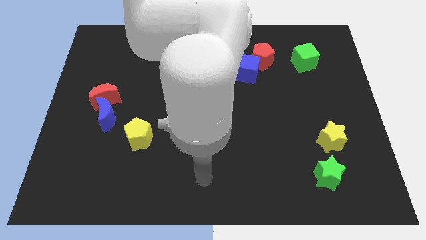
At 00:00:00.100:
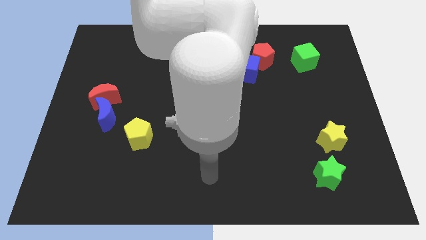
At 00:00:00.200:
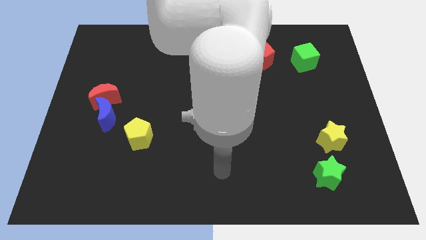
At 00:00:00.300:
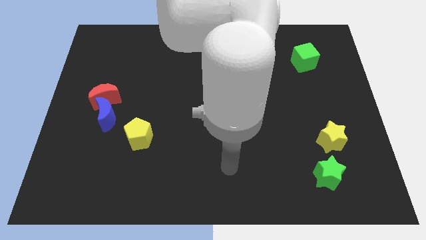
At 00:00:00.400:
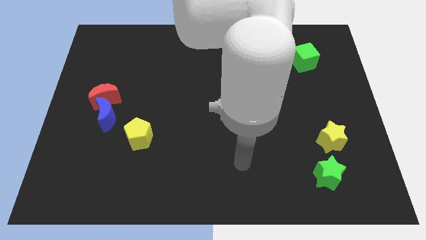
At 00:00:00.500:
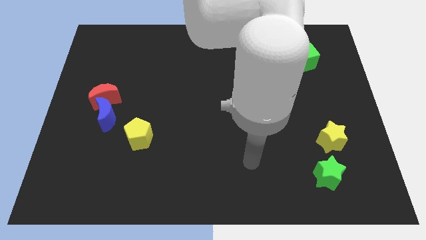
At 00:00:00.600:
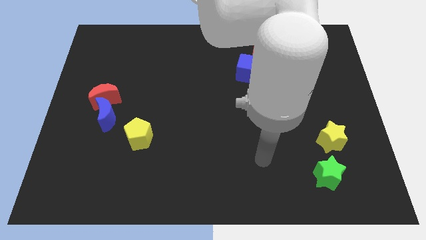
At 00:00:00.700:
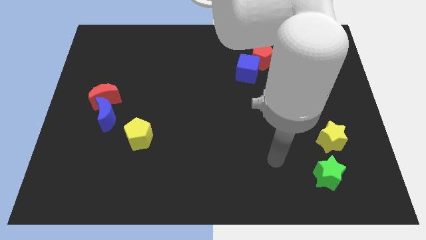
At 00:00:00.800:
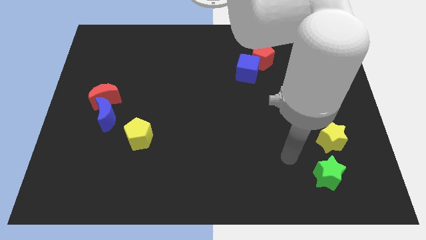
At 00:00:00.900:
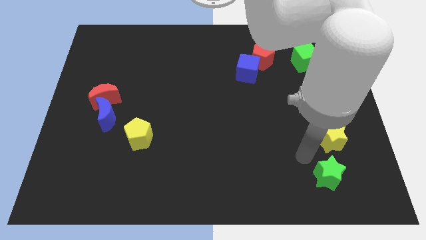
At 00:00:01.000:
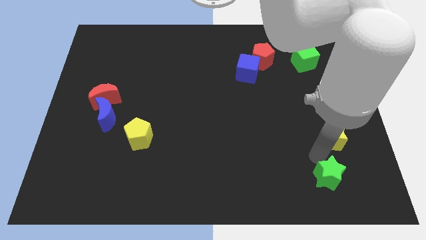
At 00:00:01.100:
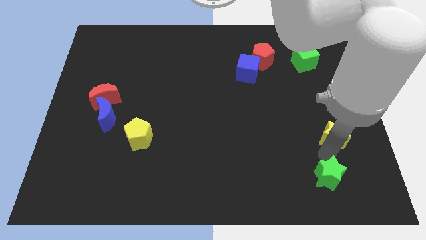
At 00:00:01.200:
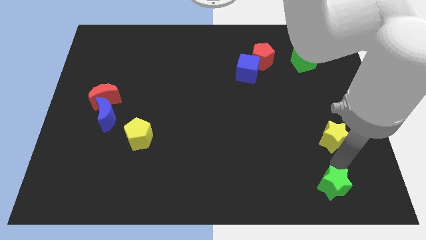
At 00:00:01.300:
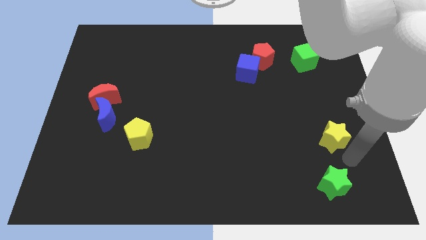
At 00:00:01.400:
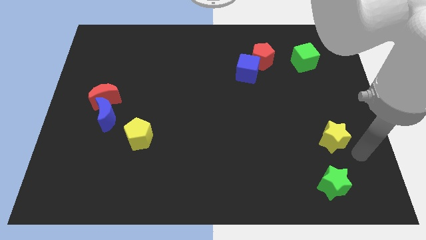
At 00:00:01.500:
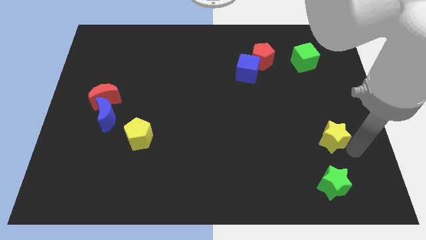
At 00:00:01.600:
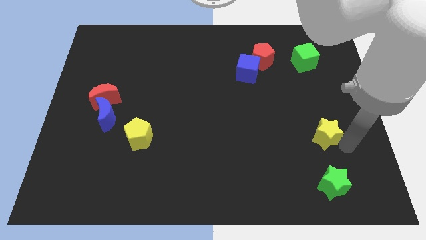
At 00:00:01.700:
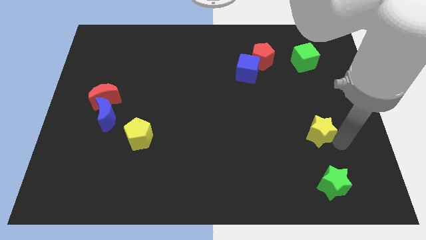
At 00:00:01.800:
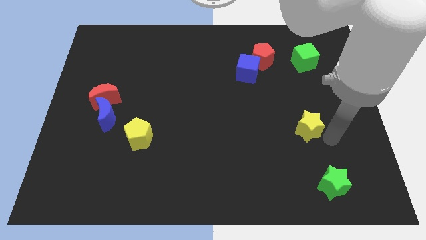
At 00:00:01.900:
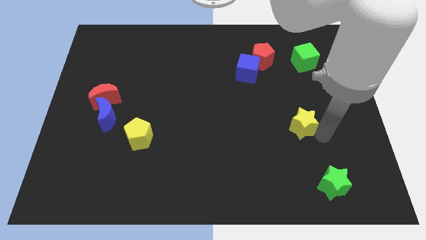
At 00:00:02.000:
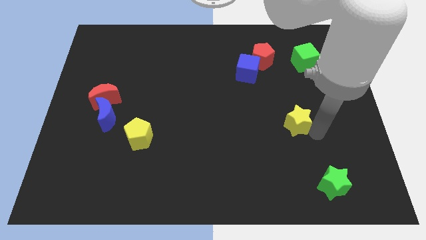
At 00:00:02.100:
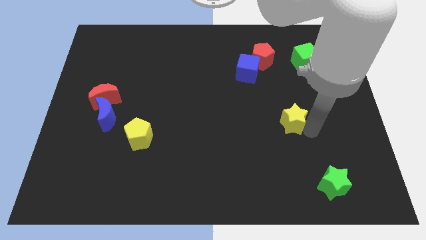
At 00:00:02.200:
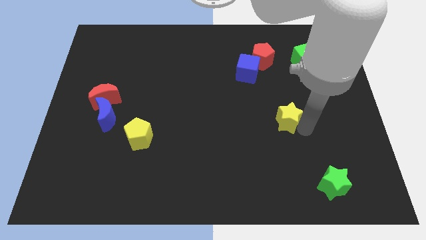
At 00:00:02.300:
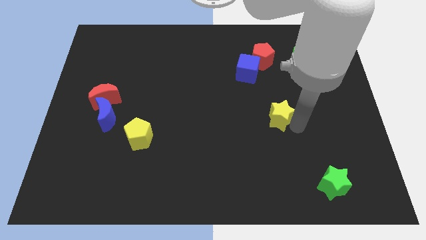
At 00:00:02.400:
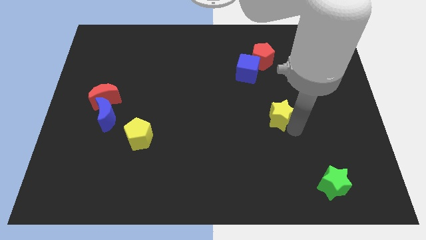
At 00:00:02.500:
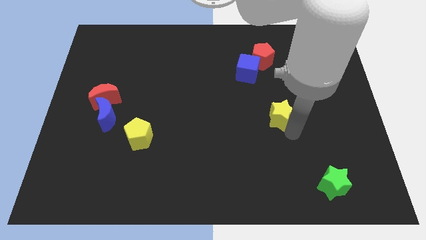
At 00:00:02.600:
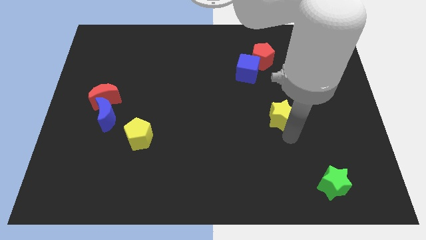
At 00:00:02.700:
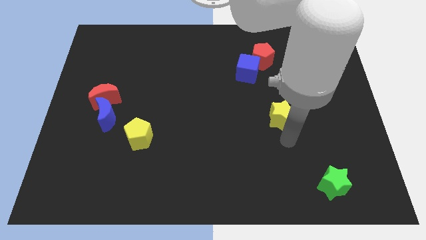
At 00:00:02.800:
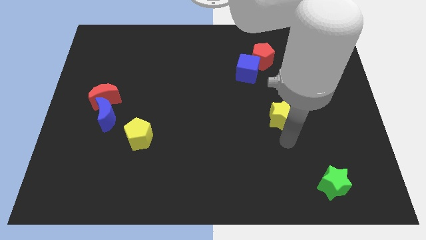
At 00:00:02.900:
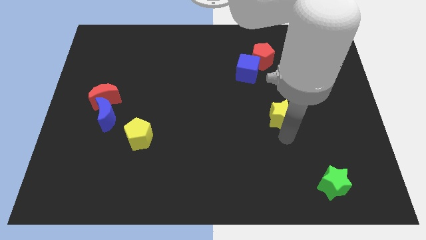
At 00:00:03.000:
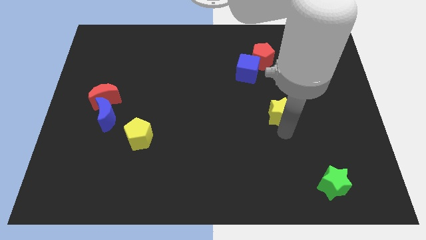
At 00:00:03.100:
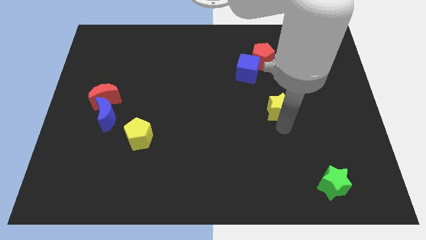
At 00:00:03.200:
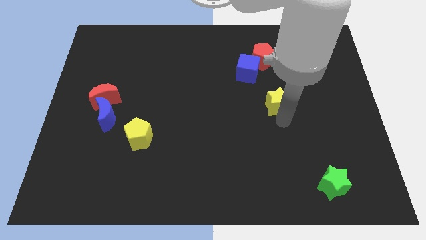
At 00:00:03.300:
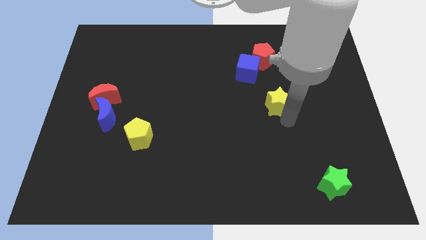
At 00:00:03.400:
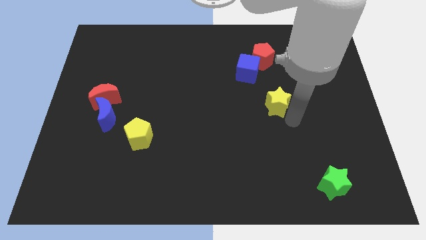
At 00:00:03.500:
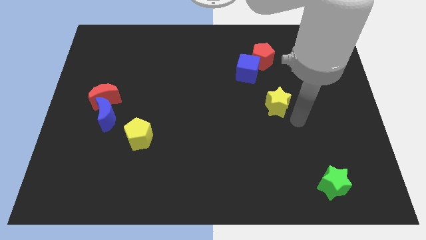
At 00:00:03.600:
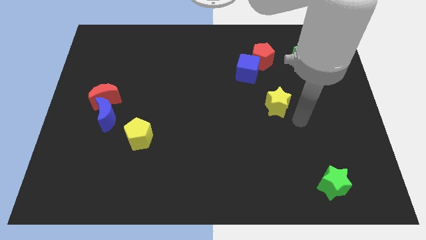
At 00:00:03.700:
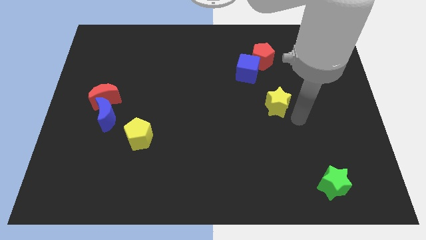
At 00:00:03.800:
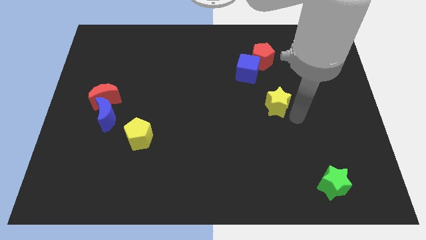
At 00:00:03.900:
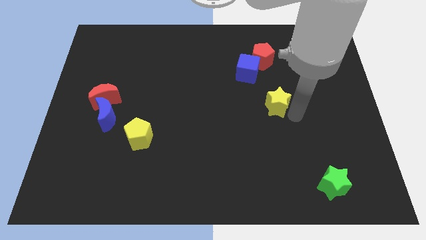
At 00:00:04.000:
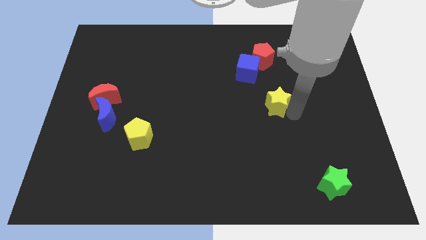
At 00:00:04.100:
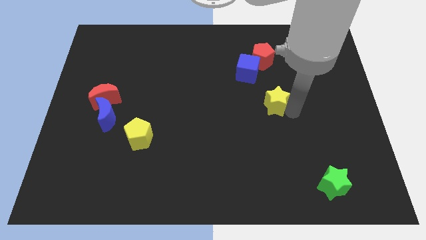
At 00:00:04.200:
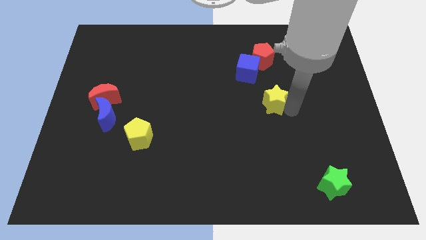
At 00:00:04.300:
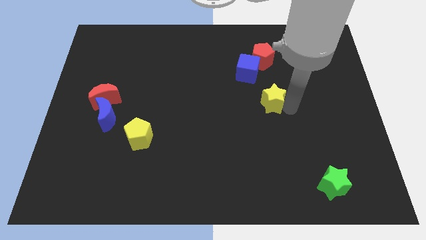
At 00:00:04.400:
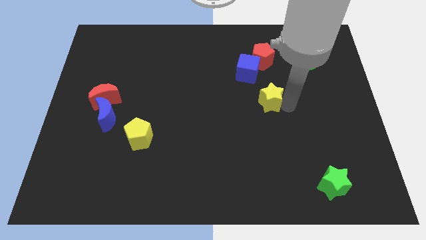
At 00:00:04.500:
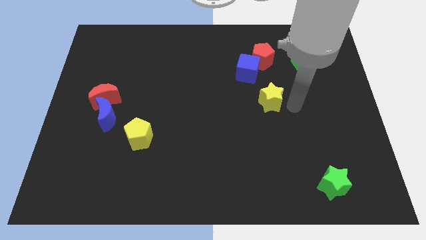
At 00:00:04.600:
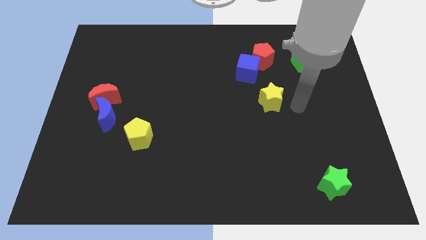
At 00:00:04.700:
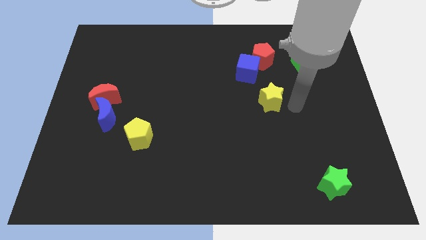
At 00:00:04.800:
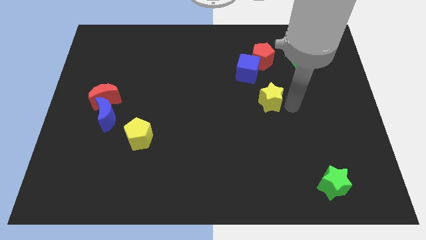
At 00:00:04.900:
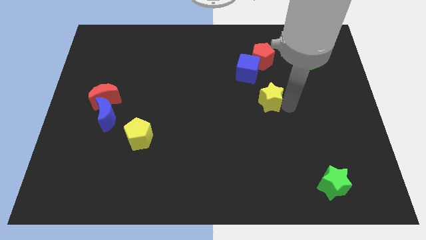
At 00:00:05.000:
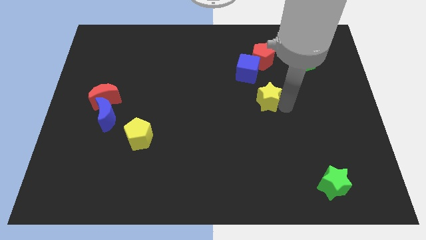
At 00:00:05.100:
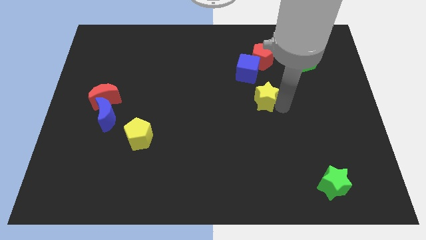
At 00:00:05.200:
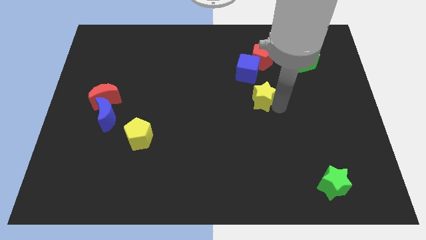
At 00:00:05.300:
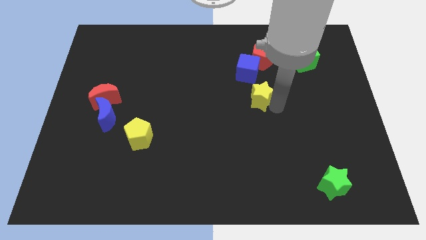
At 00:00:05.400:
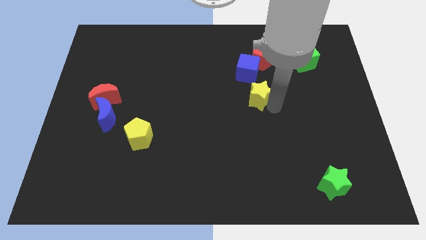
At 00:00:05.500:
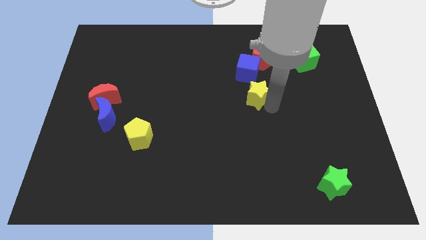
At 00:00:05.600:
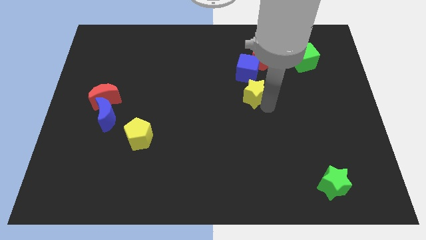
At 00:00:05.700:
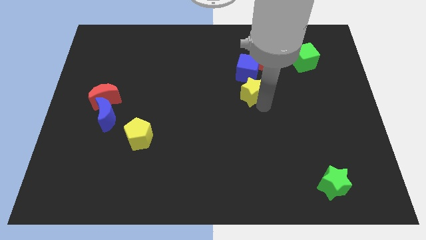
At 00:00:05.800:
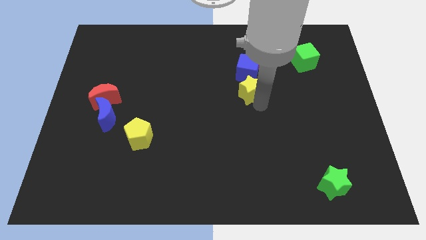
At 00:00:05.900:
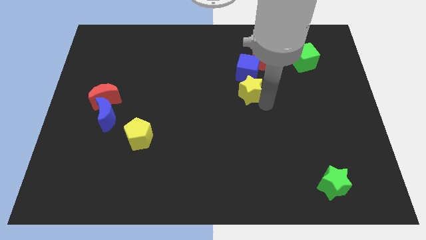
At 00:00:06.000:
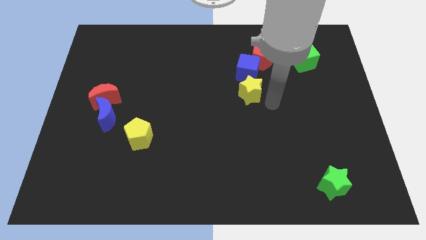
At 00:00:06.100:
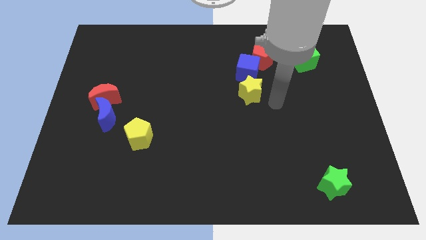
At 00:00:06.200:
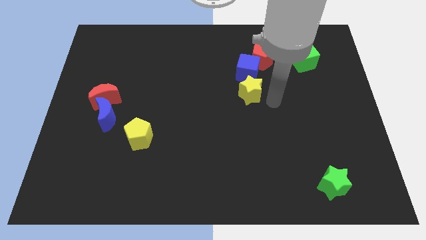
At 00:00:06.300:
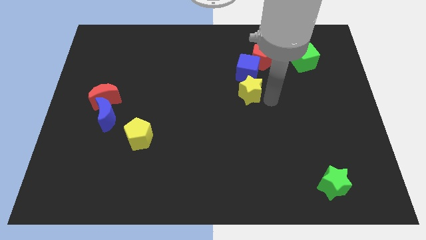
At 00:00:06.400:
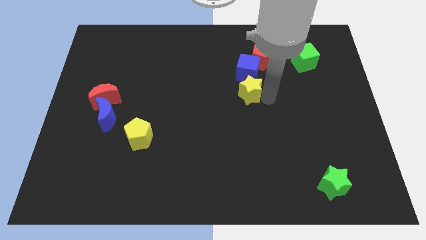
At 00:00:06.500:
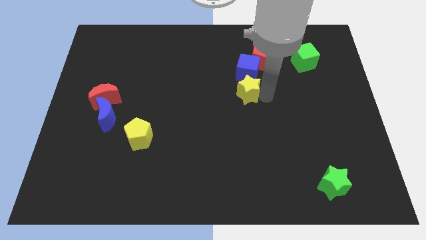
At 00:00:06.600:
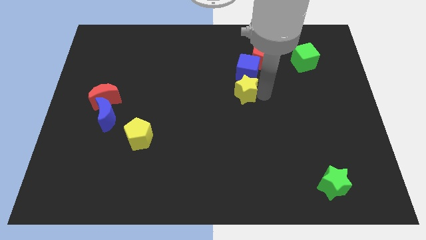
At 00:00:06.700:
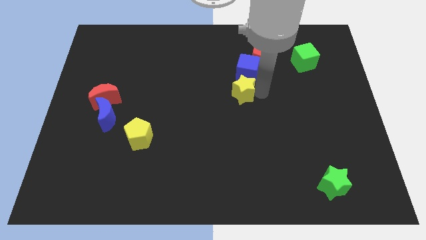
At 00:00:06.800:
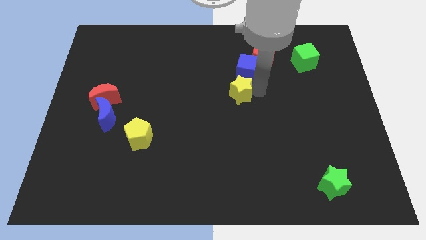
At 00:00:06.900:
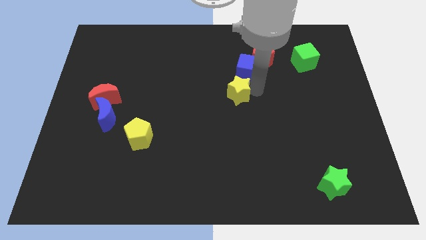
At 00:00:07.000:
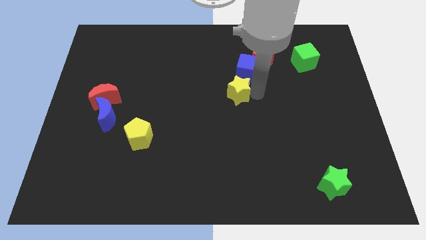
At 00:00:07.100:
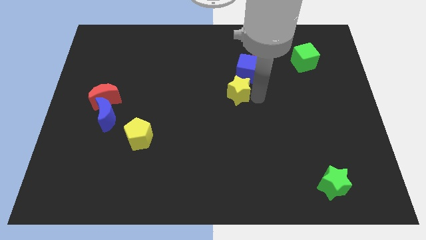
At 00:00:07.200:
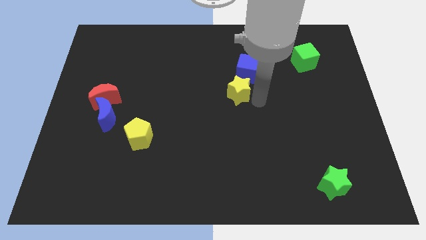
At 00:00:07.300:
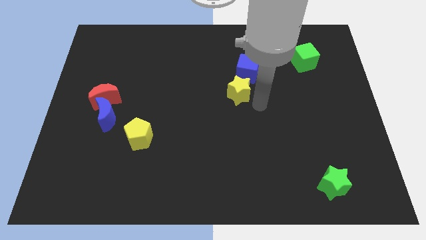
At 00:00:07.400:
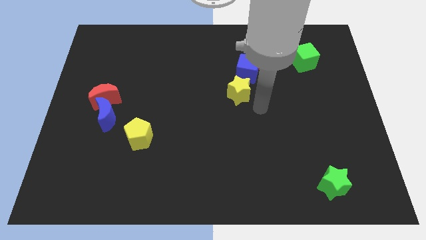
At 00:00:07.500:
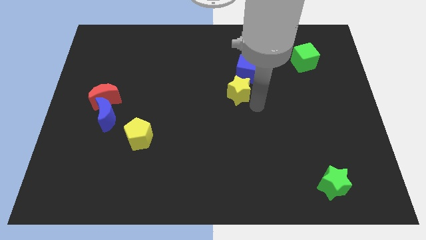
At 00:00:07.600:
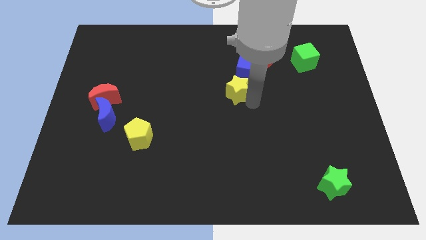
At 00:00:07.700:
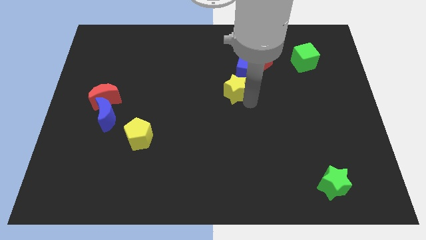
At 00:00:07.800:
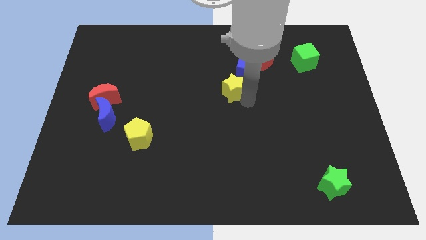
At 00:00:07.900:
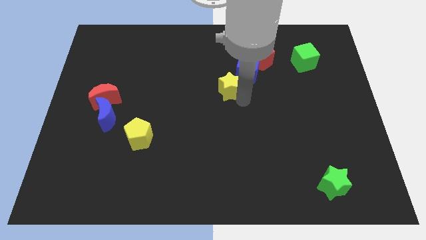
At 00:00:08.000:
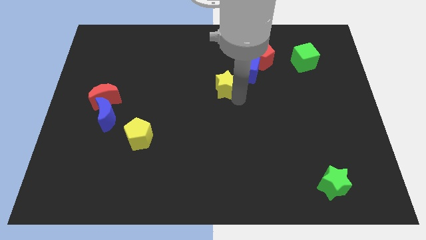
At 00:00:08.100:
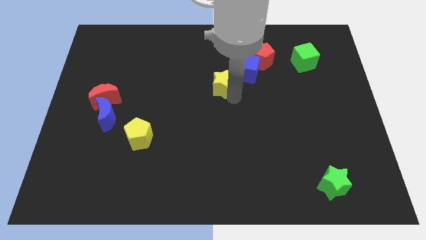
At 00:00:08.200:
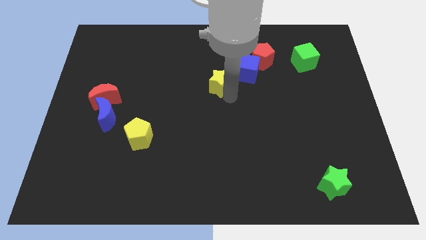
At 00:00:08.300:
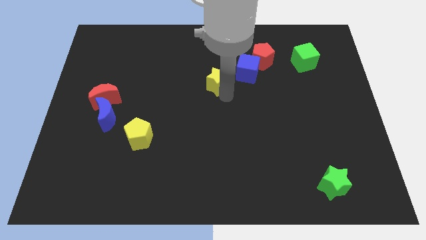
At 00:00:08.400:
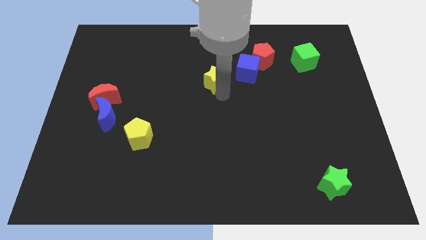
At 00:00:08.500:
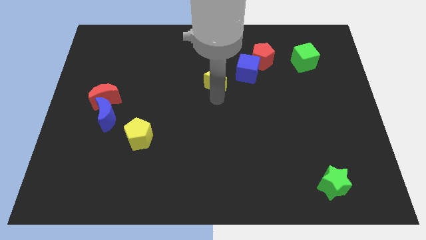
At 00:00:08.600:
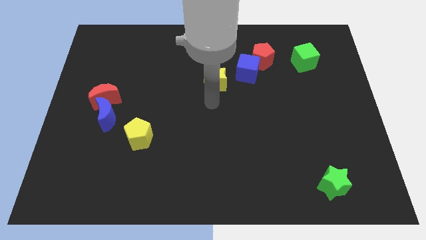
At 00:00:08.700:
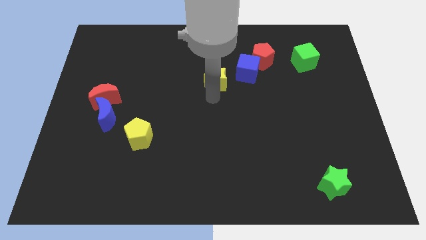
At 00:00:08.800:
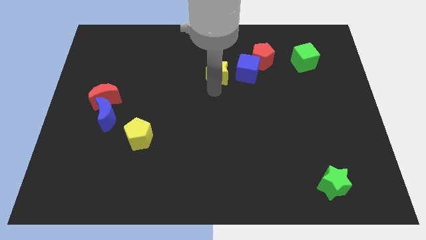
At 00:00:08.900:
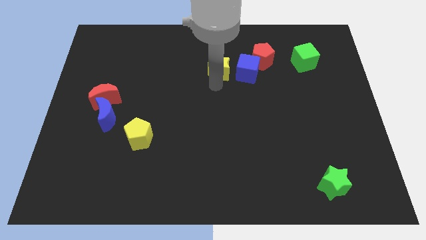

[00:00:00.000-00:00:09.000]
put the yellow star to the left of the red pentagon
